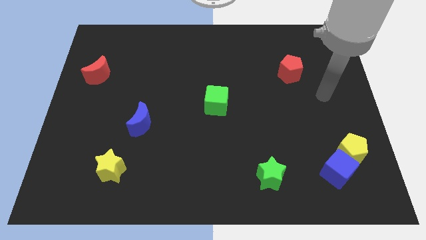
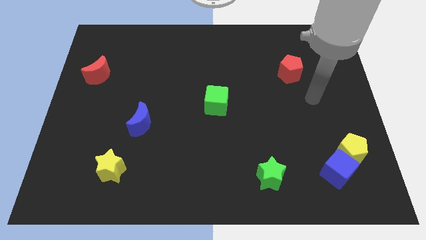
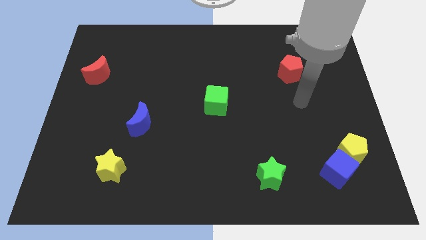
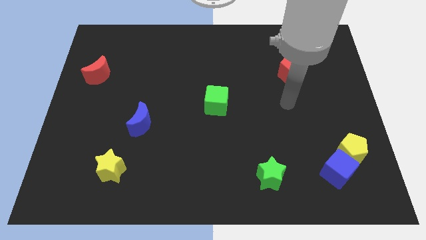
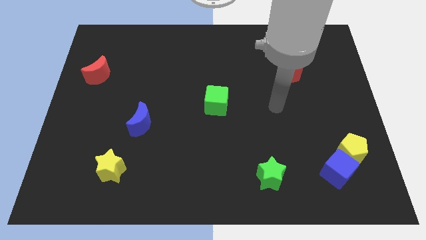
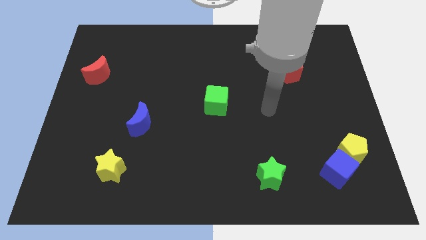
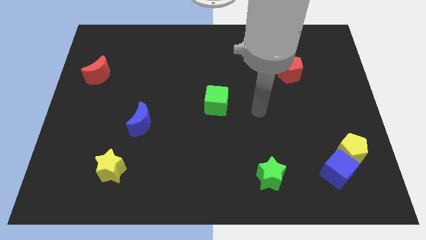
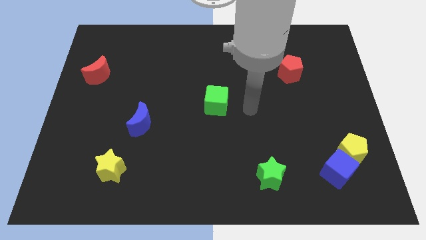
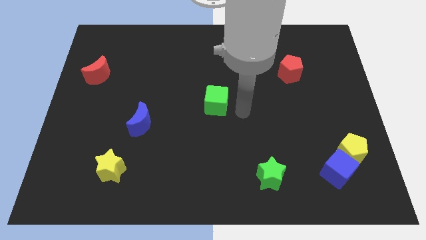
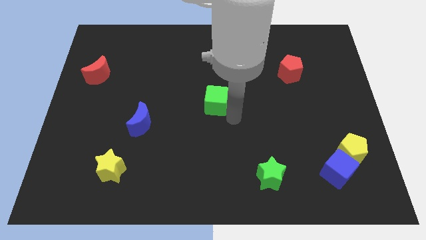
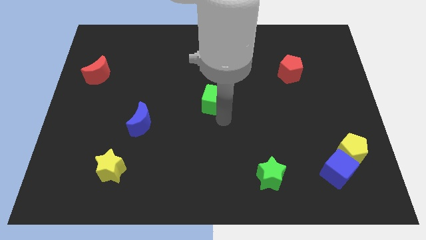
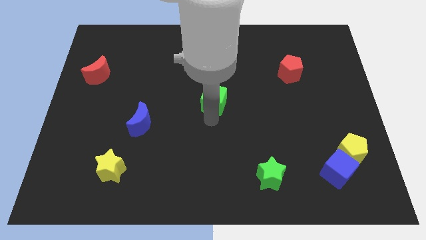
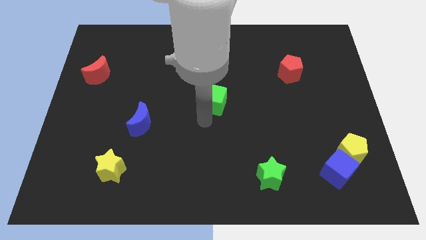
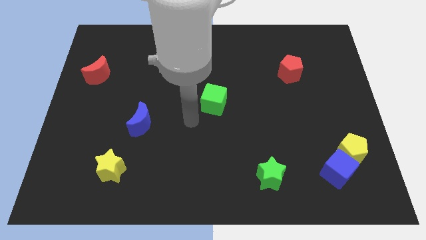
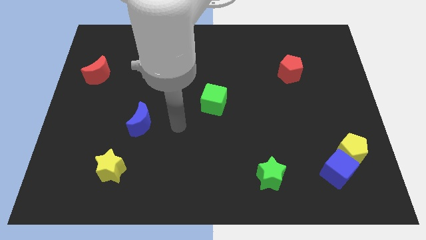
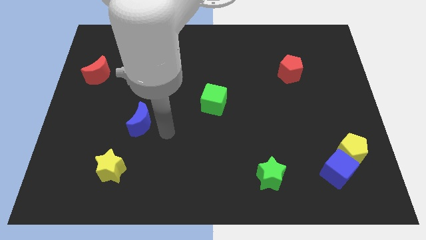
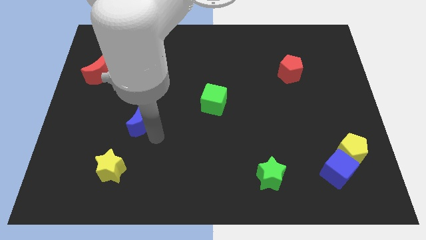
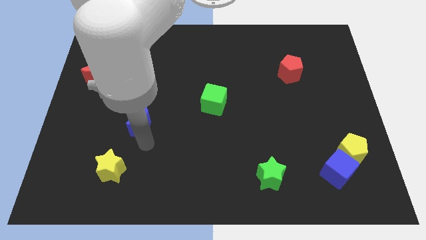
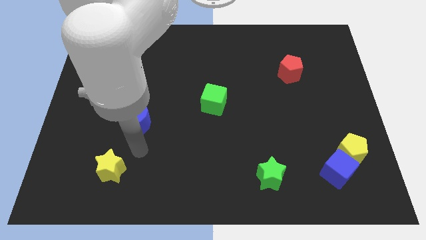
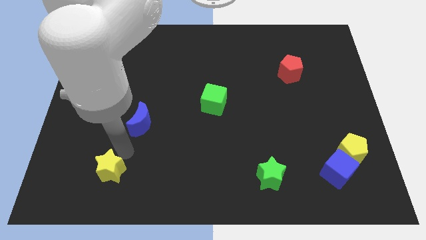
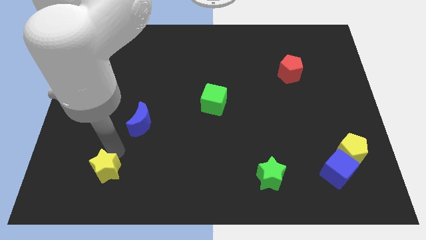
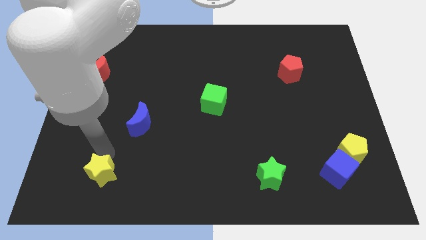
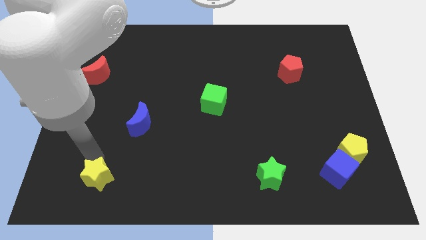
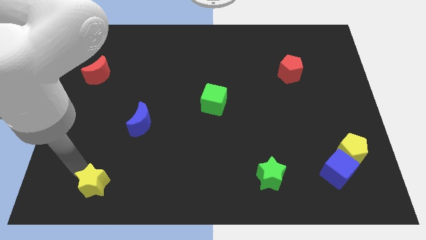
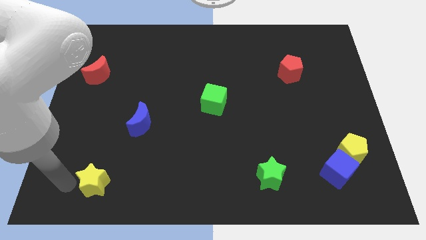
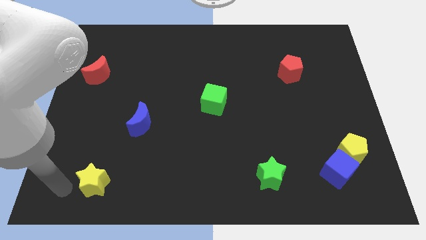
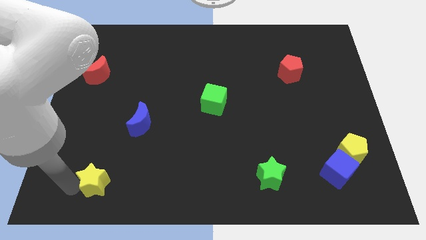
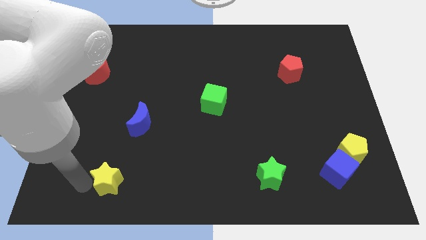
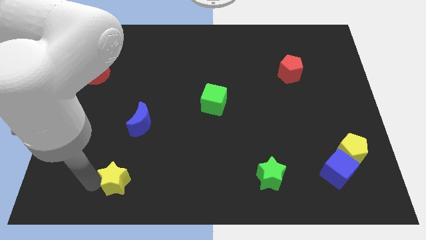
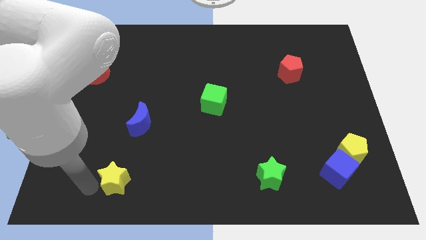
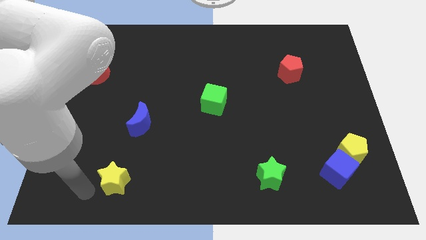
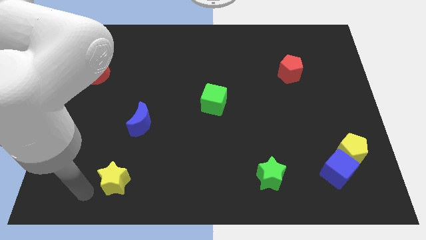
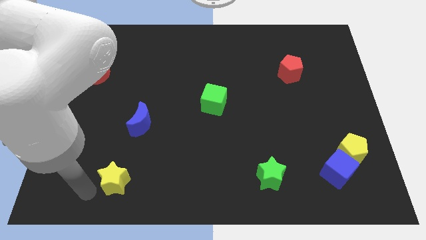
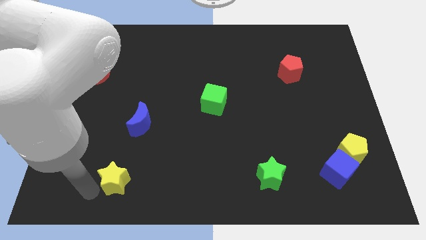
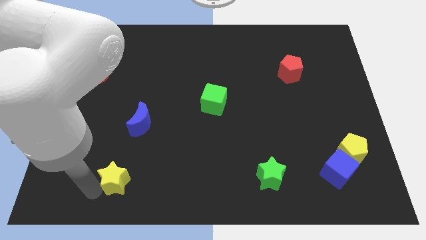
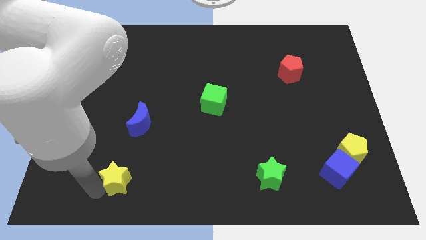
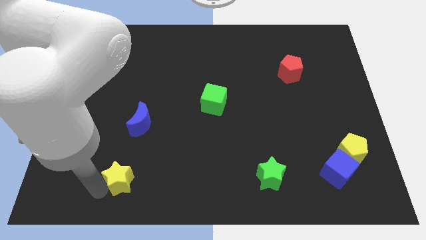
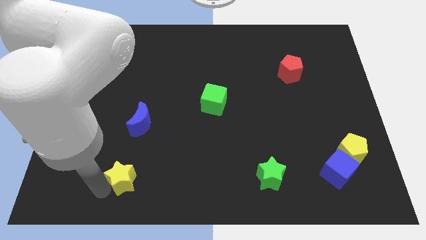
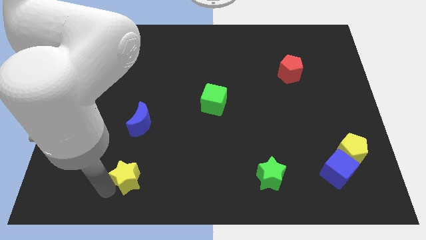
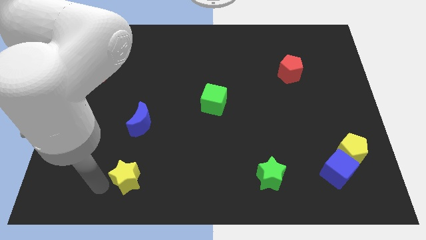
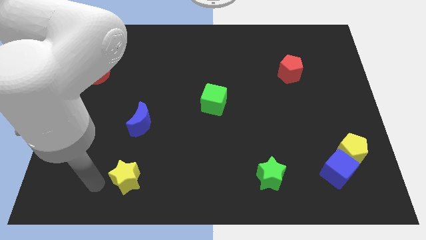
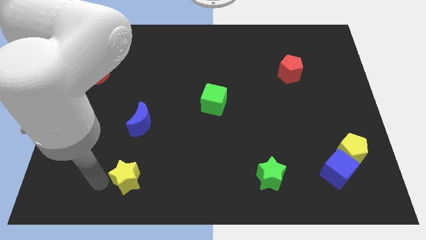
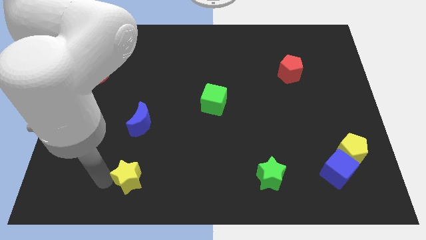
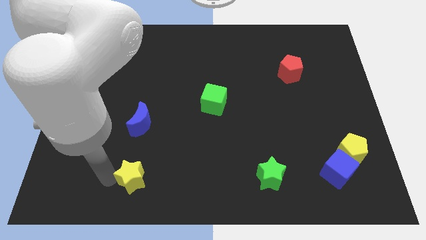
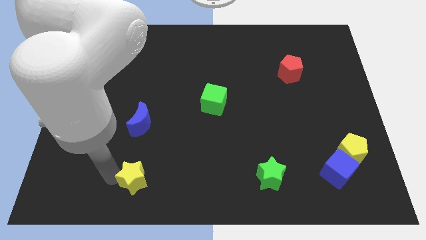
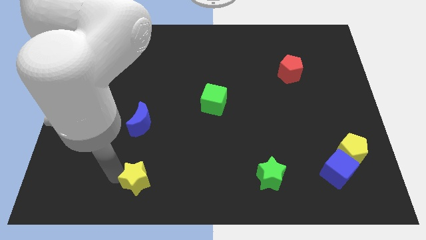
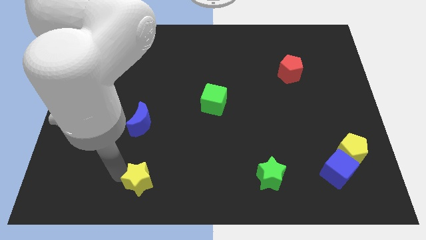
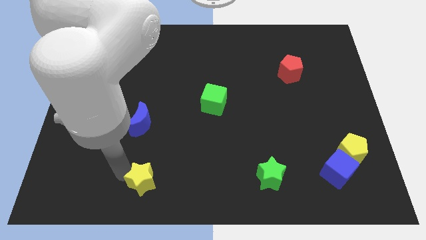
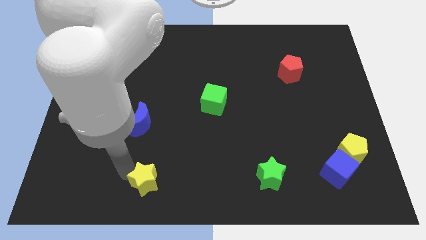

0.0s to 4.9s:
slide the yellow star a bit to the right

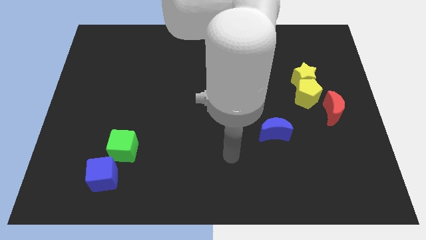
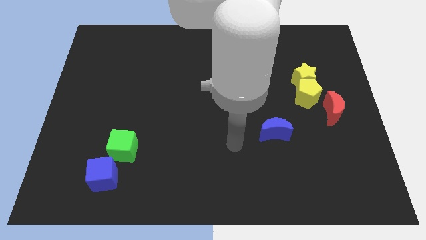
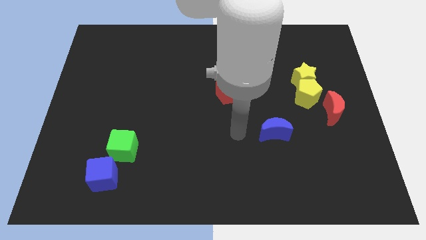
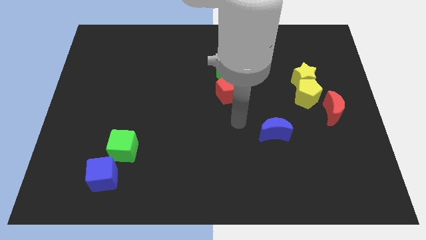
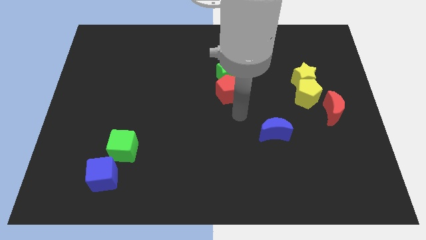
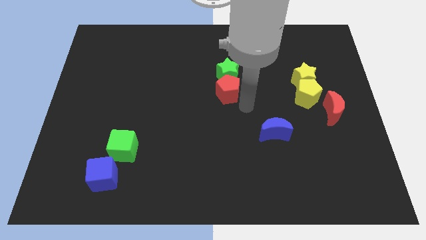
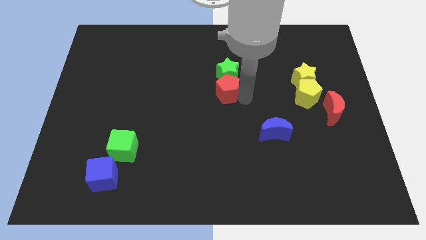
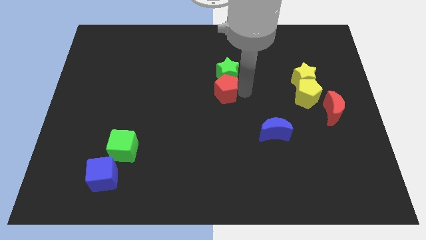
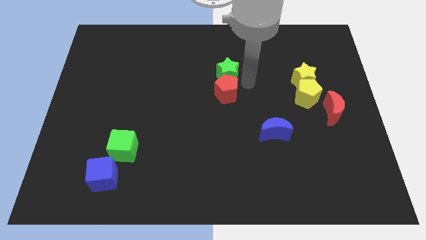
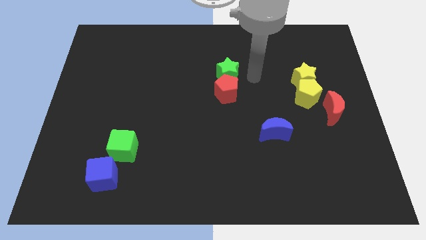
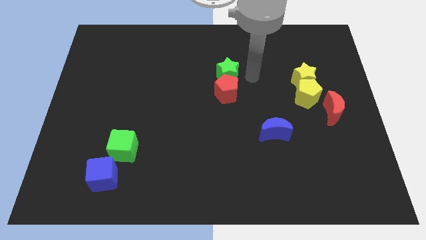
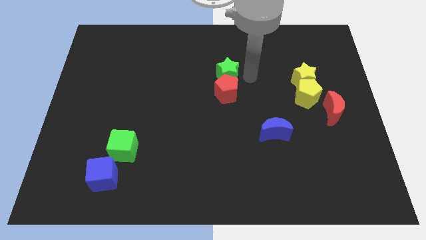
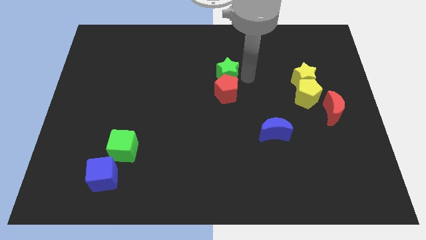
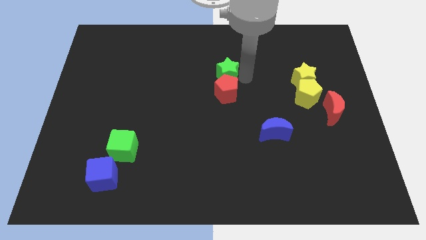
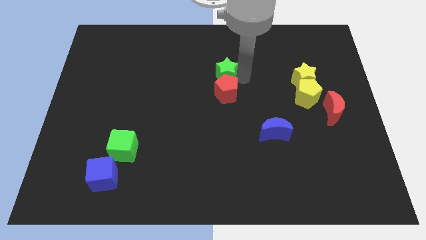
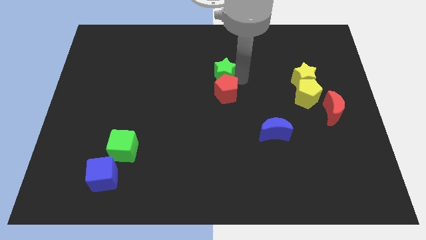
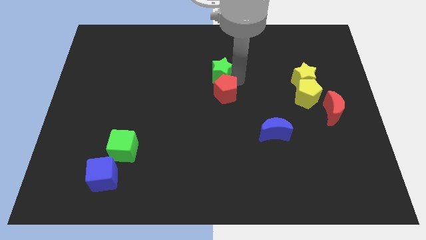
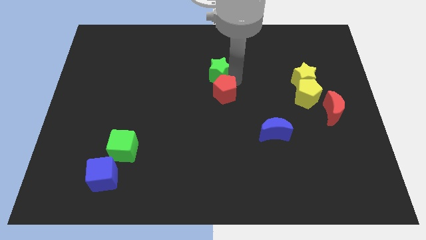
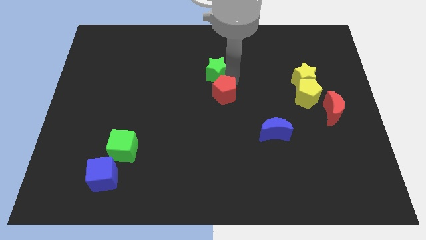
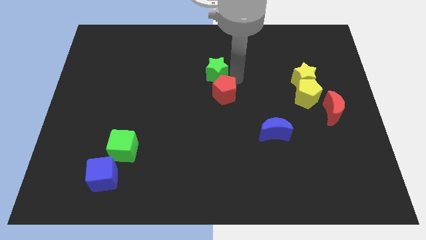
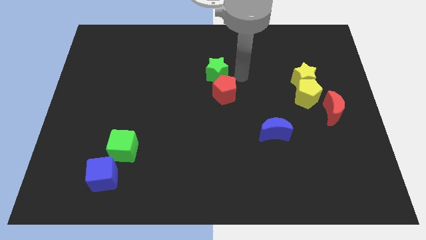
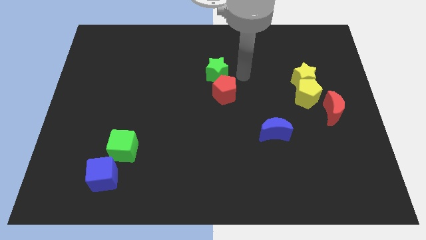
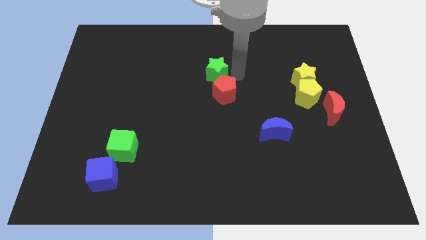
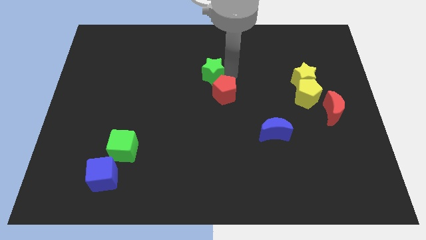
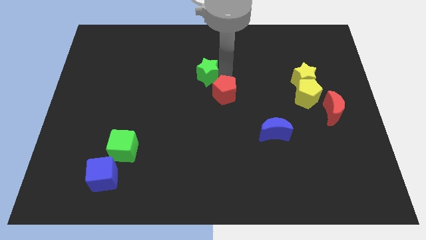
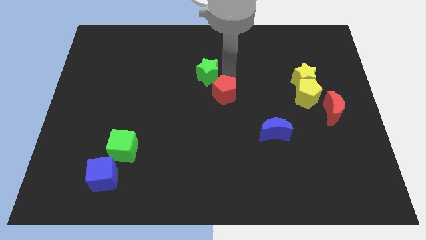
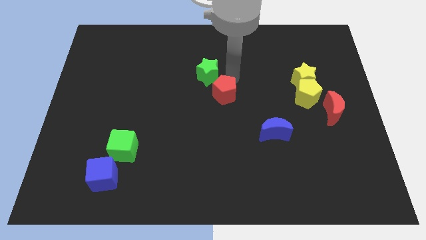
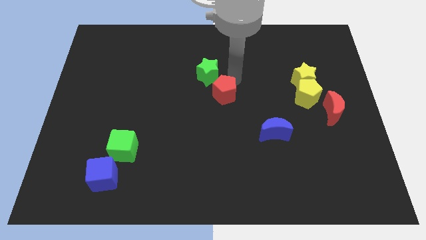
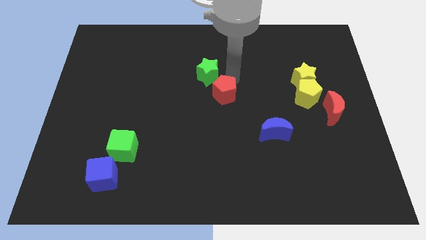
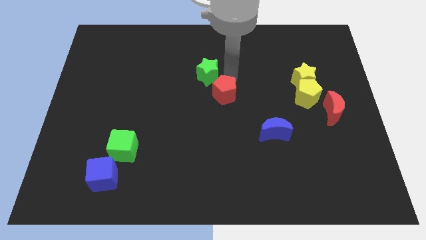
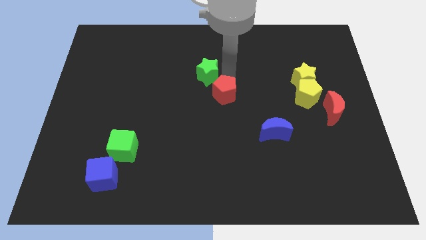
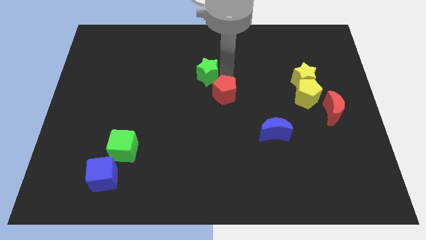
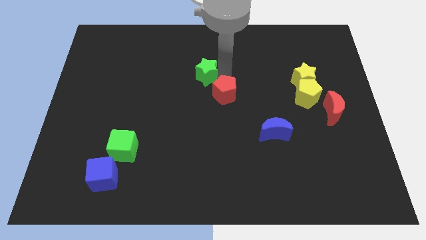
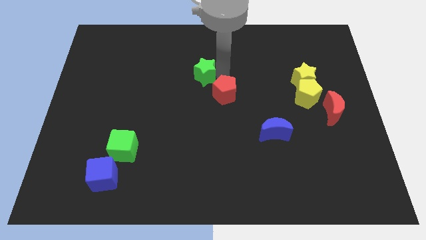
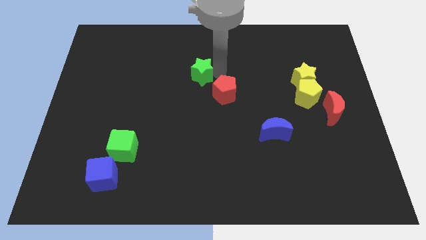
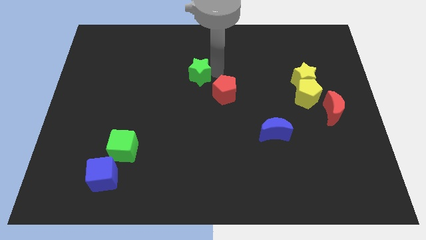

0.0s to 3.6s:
push the green star somewhat to the left
